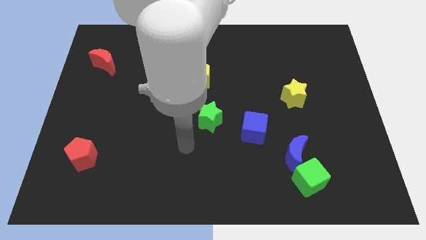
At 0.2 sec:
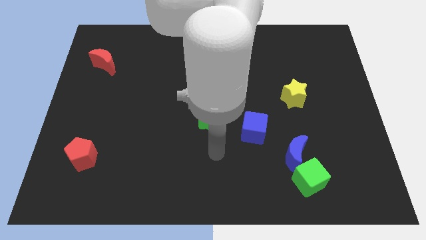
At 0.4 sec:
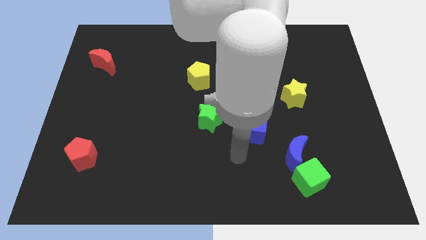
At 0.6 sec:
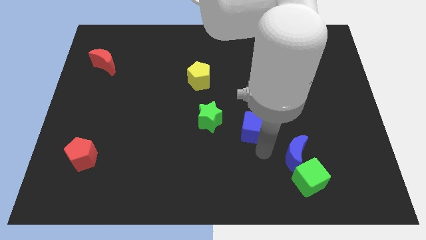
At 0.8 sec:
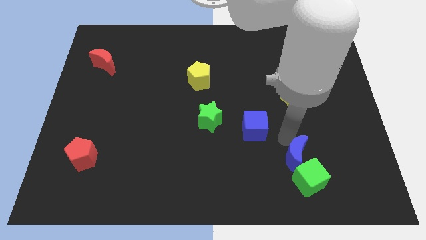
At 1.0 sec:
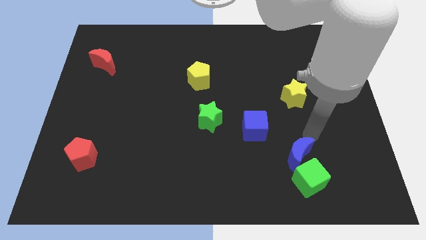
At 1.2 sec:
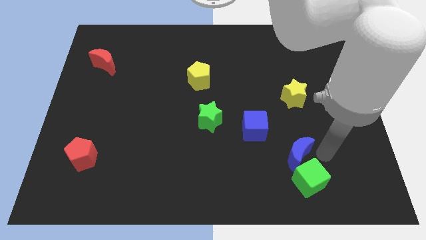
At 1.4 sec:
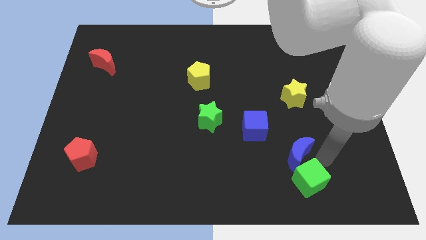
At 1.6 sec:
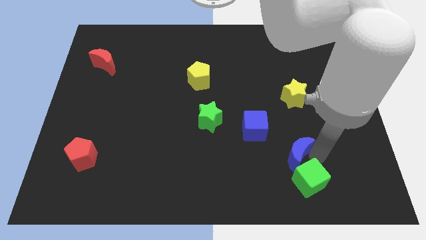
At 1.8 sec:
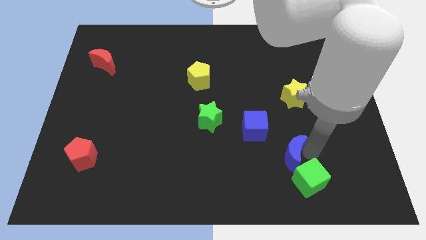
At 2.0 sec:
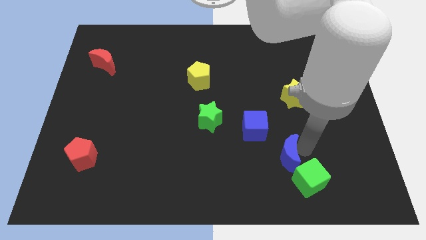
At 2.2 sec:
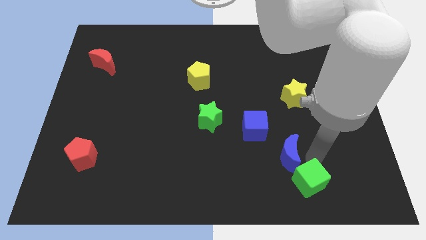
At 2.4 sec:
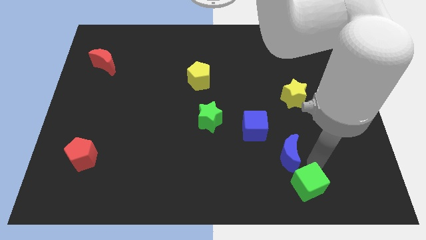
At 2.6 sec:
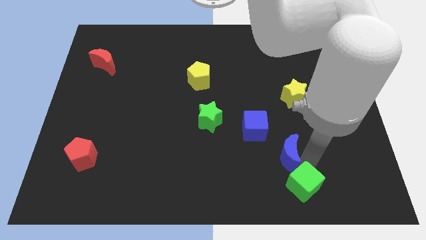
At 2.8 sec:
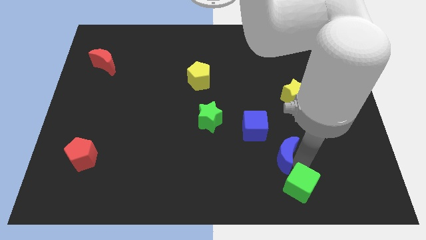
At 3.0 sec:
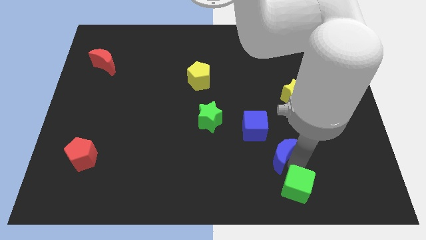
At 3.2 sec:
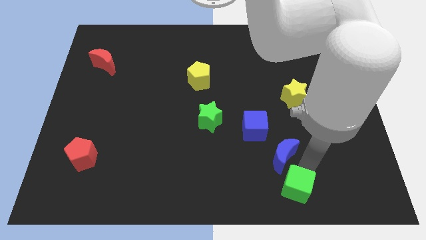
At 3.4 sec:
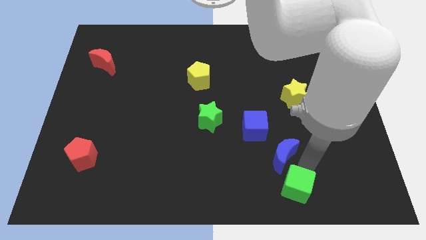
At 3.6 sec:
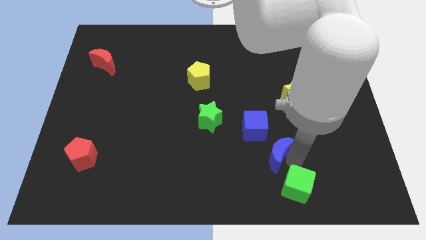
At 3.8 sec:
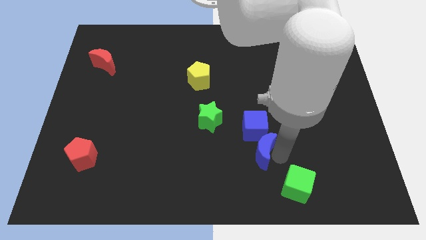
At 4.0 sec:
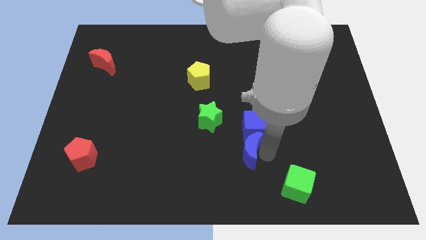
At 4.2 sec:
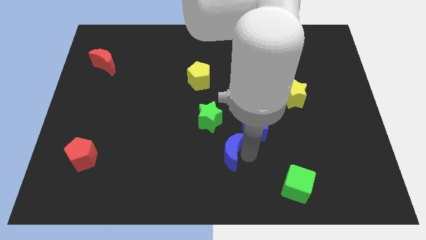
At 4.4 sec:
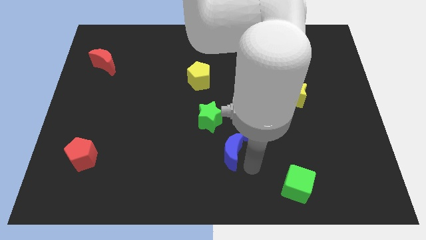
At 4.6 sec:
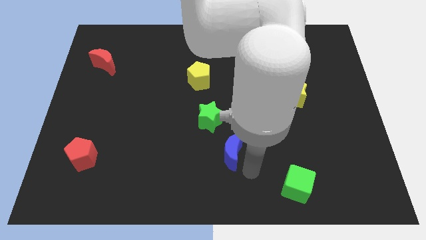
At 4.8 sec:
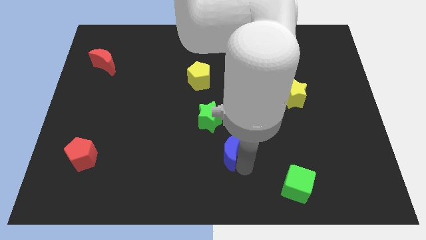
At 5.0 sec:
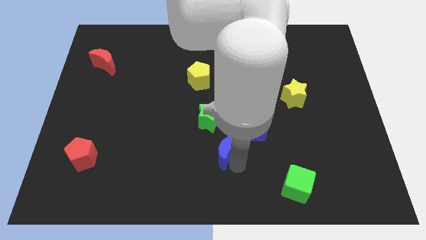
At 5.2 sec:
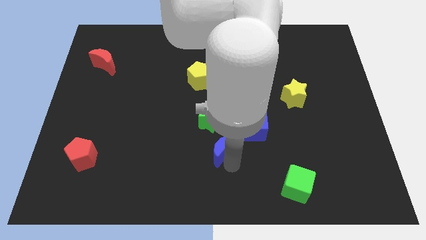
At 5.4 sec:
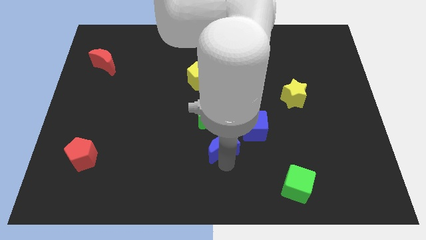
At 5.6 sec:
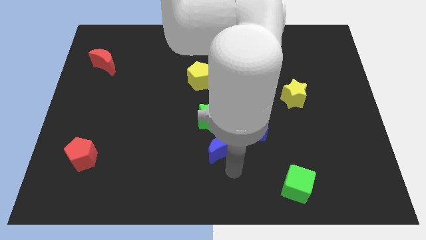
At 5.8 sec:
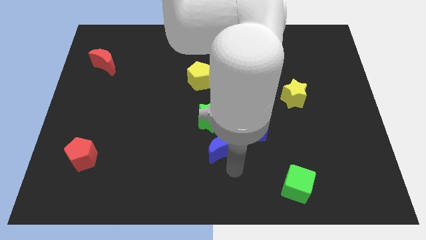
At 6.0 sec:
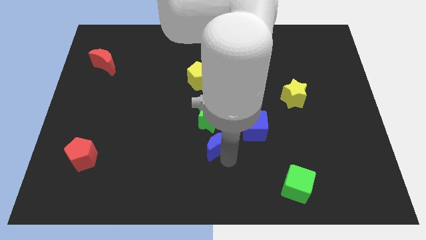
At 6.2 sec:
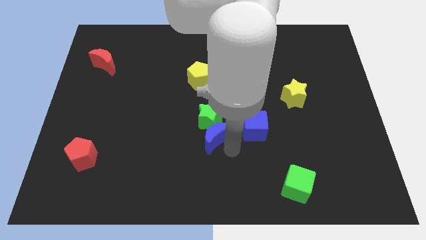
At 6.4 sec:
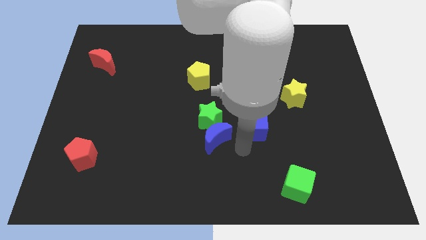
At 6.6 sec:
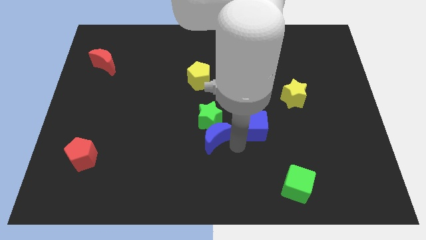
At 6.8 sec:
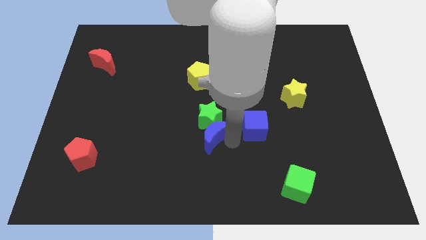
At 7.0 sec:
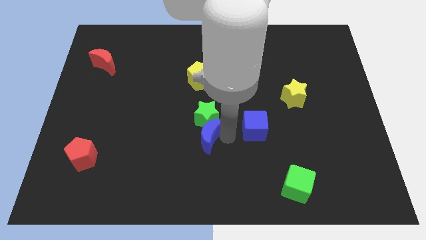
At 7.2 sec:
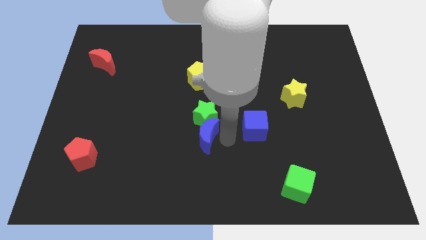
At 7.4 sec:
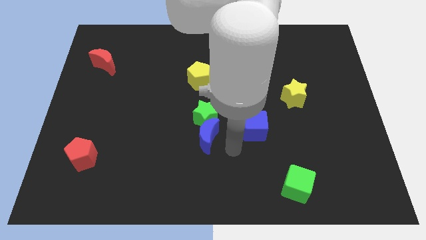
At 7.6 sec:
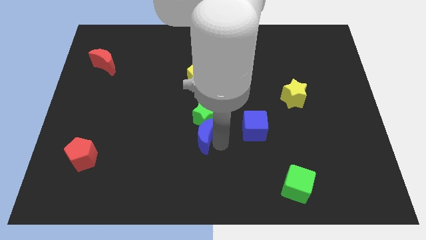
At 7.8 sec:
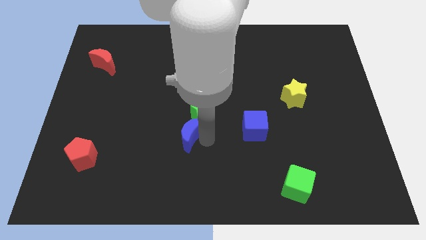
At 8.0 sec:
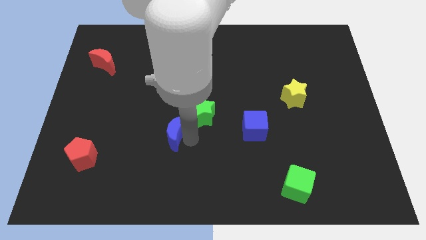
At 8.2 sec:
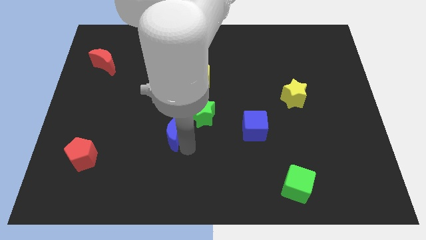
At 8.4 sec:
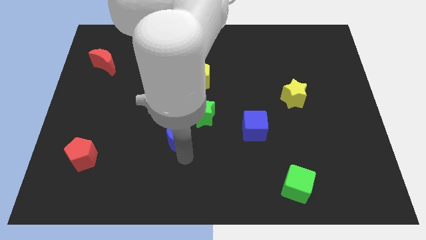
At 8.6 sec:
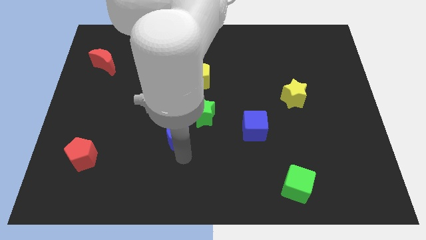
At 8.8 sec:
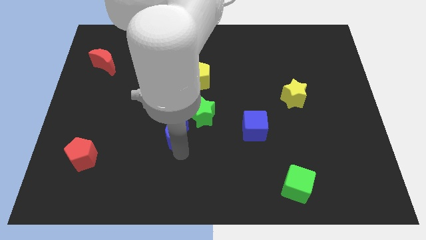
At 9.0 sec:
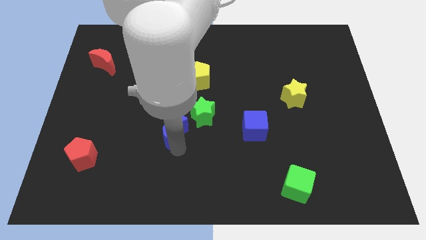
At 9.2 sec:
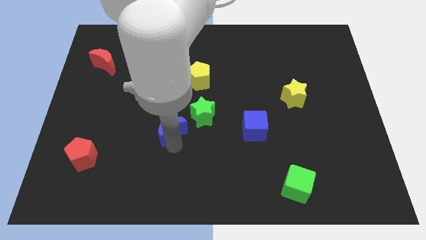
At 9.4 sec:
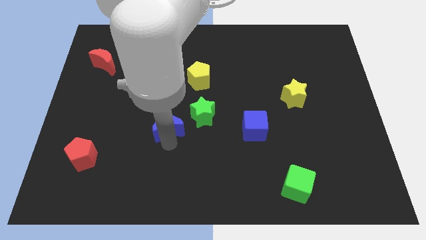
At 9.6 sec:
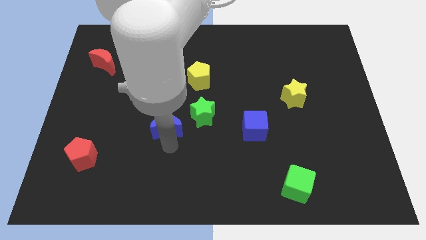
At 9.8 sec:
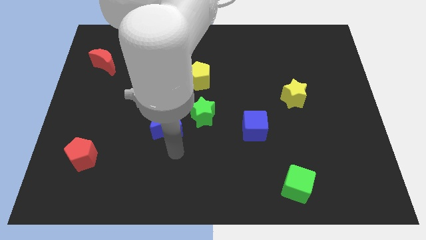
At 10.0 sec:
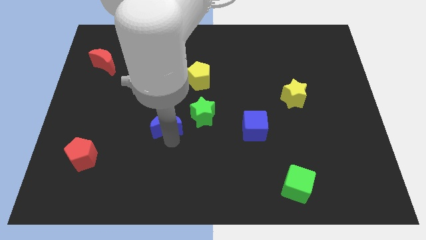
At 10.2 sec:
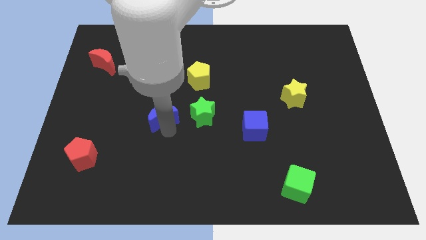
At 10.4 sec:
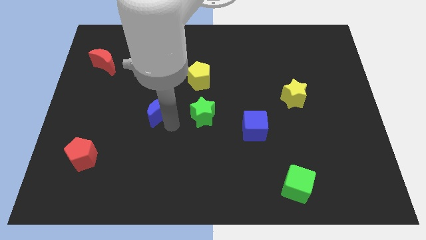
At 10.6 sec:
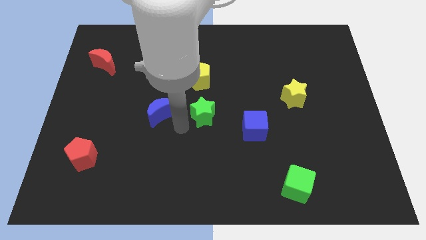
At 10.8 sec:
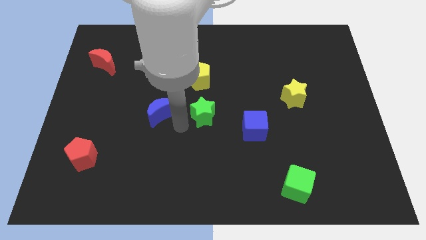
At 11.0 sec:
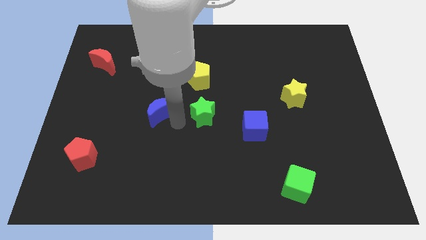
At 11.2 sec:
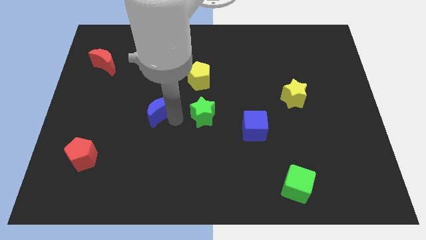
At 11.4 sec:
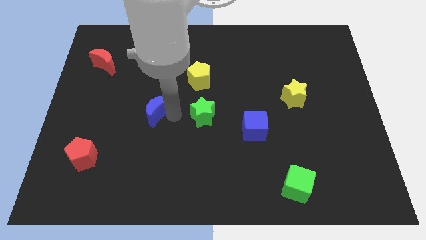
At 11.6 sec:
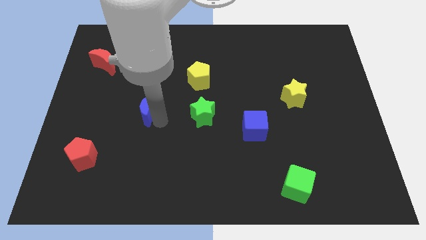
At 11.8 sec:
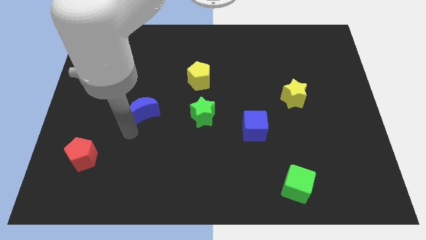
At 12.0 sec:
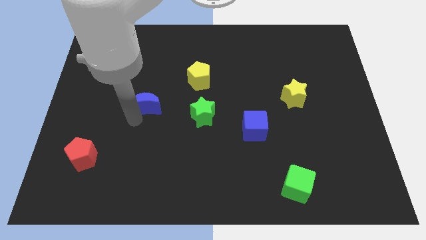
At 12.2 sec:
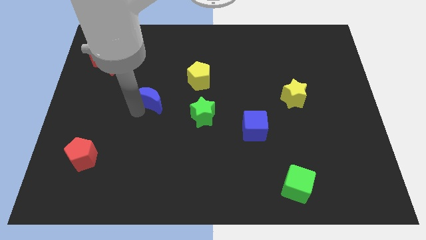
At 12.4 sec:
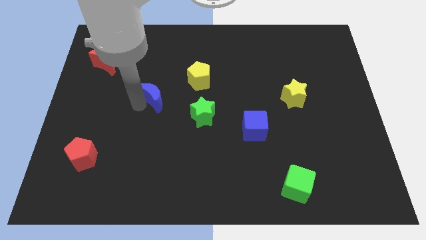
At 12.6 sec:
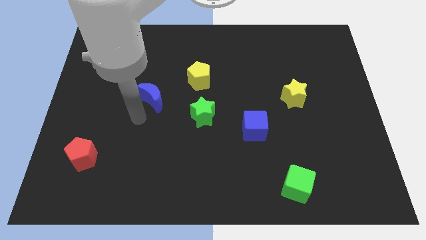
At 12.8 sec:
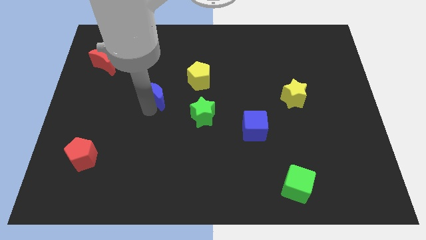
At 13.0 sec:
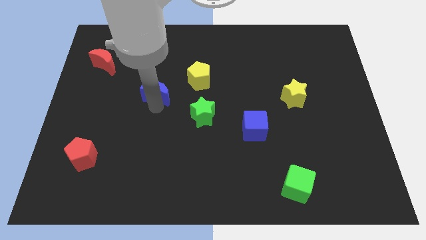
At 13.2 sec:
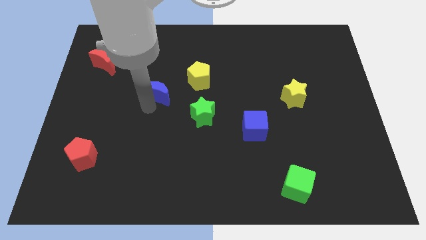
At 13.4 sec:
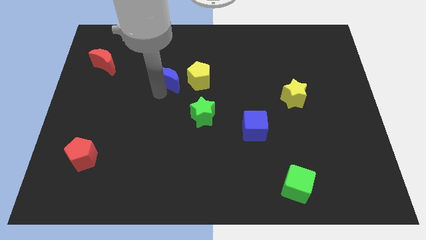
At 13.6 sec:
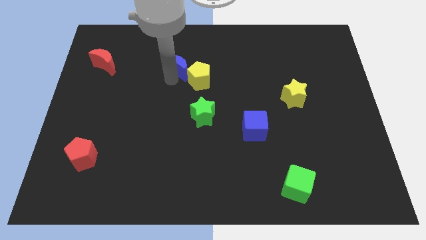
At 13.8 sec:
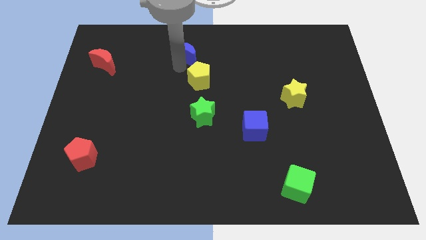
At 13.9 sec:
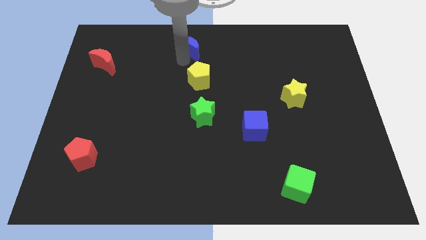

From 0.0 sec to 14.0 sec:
slide the blue moon to the top side
